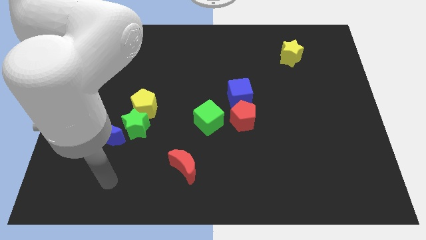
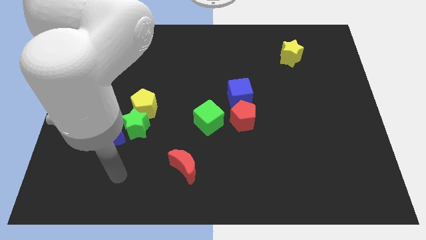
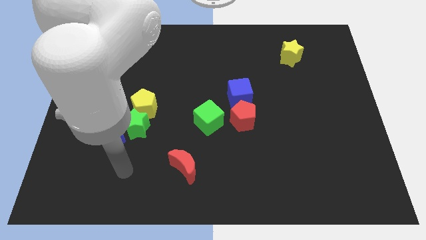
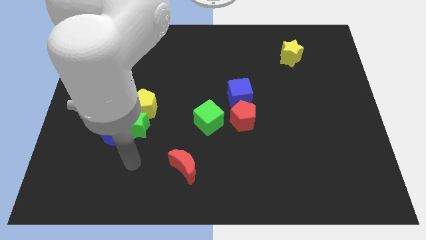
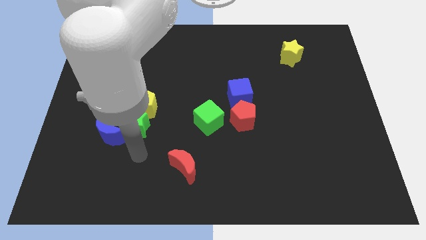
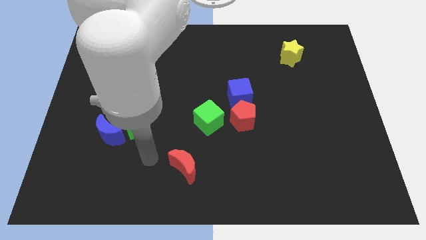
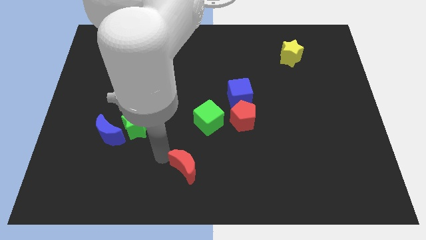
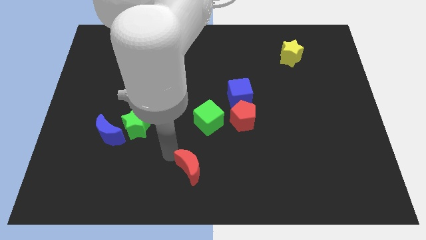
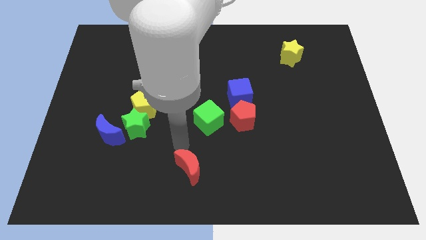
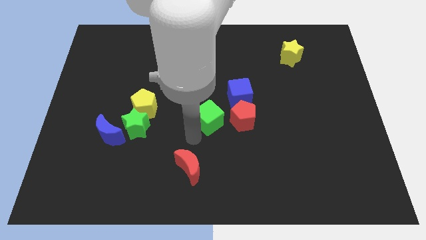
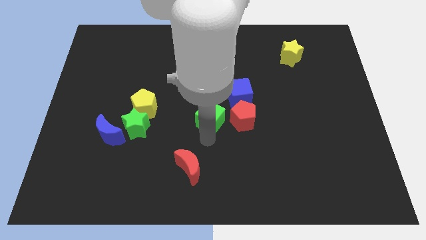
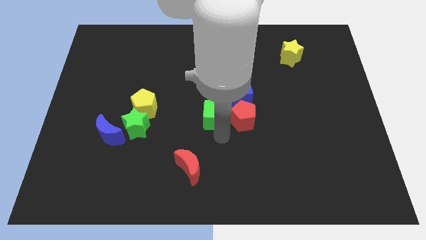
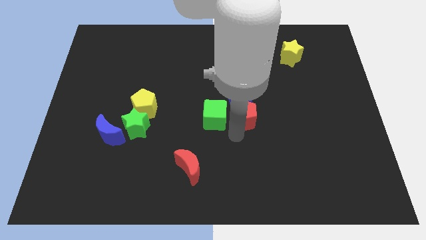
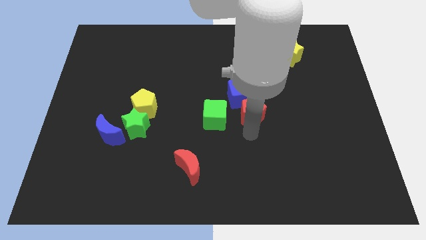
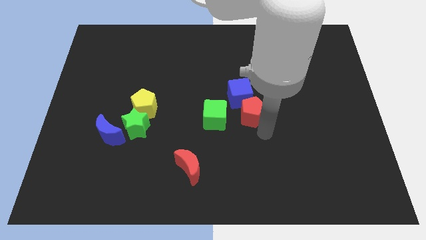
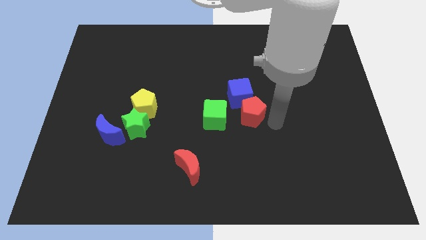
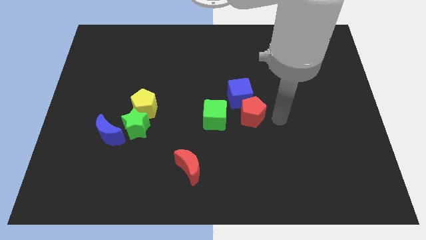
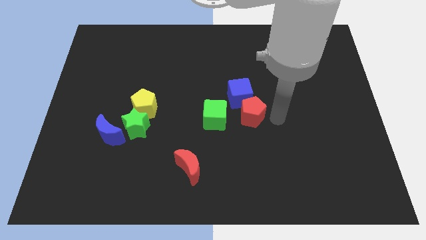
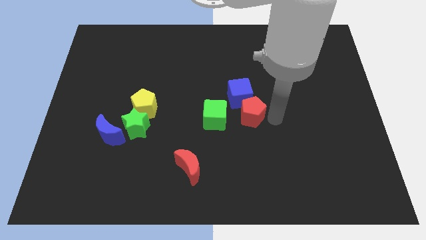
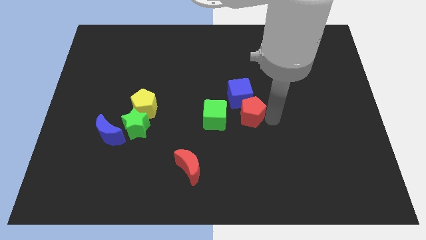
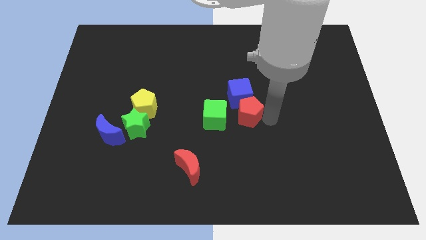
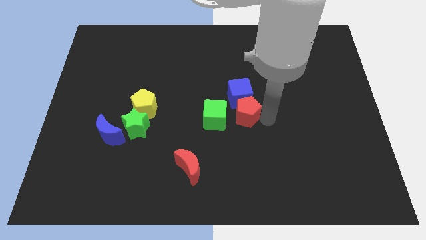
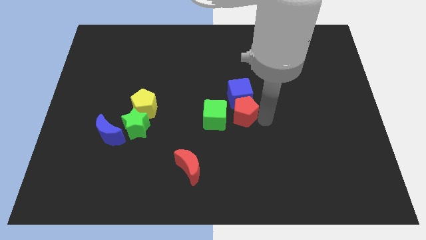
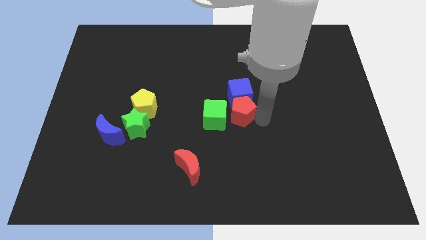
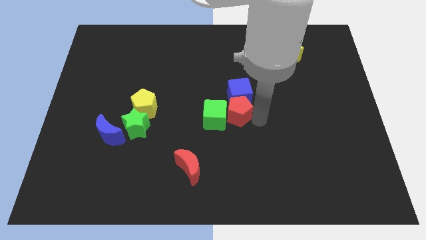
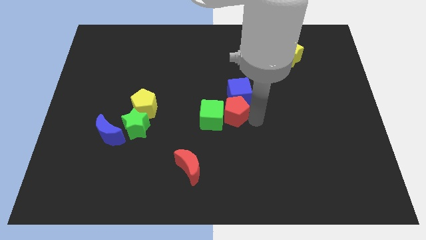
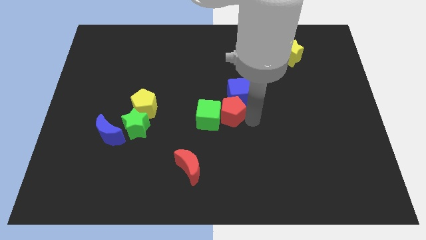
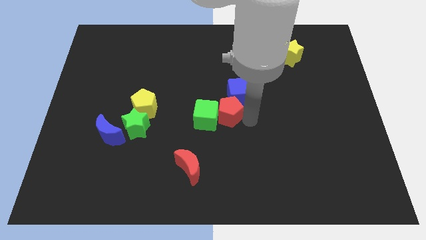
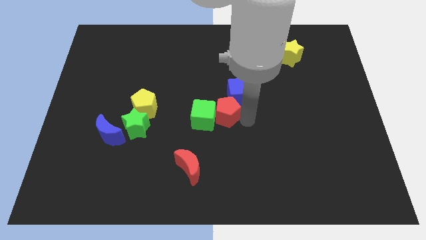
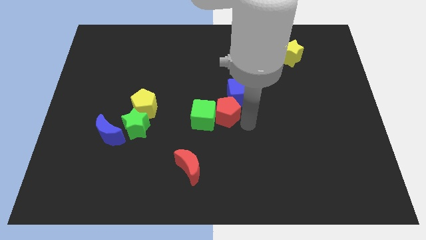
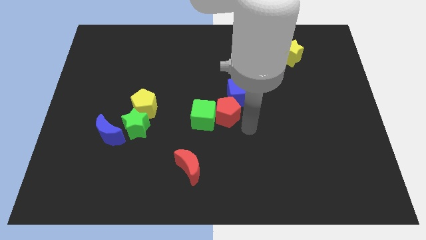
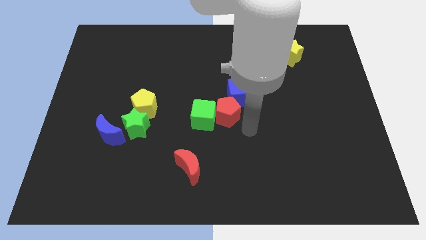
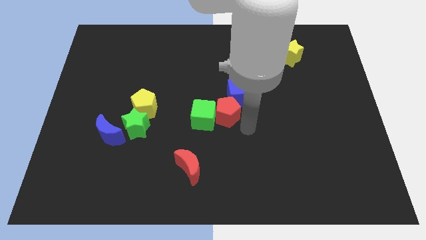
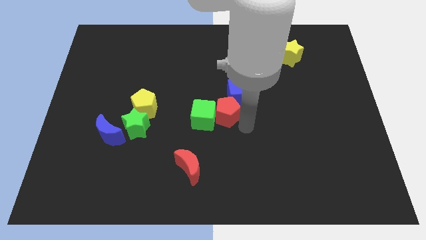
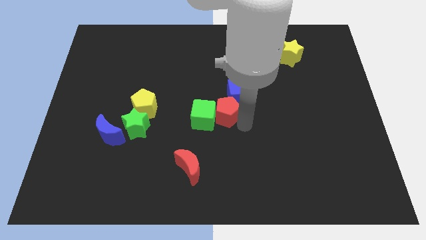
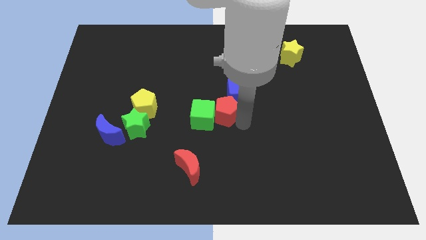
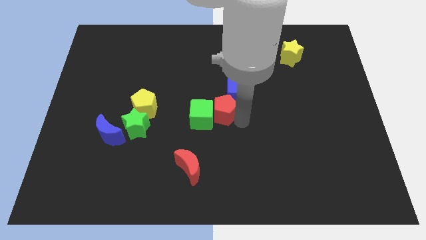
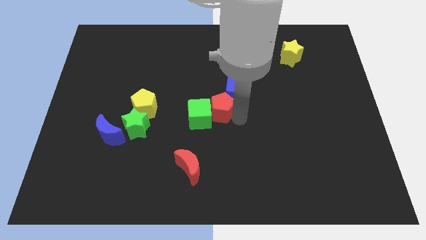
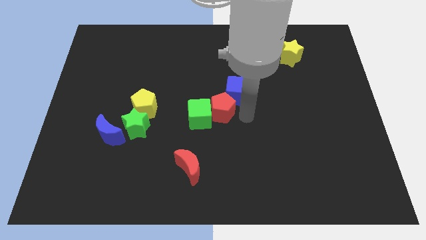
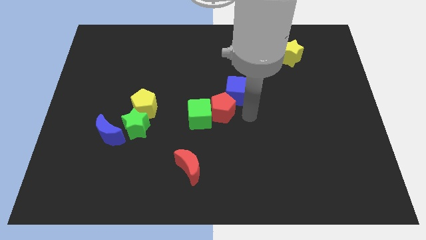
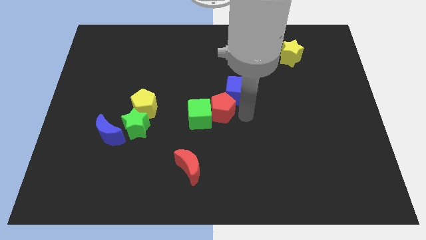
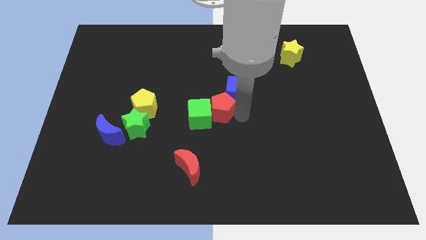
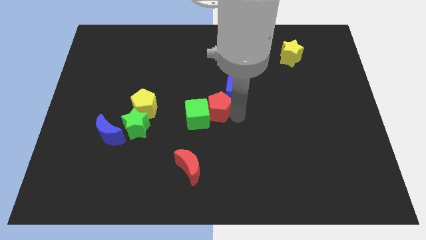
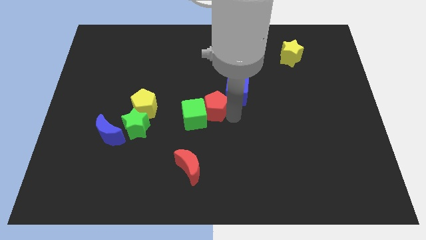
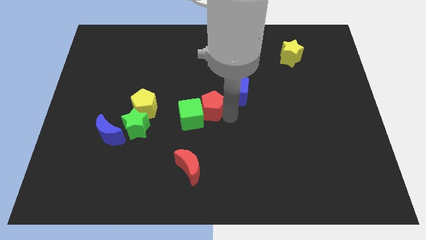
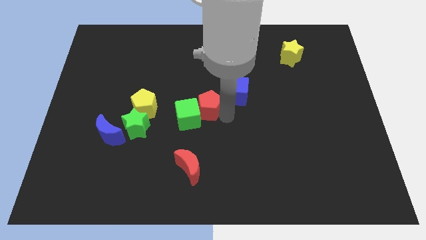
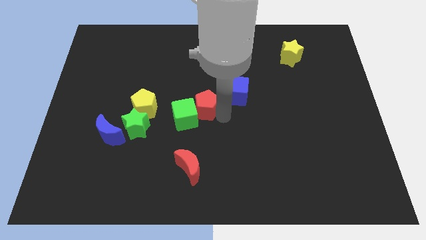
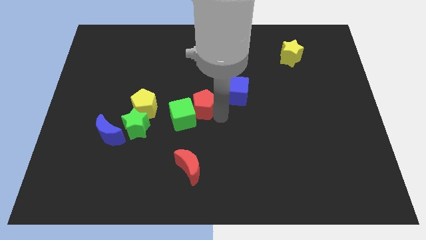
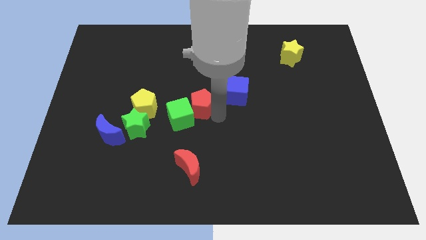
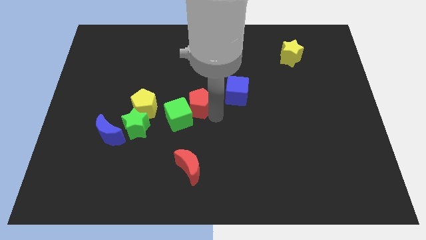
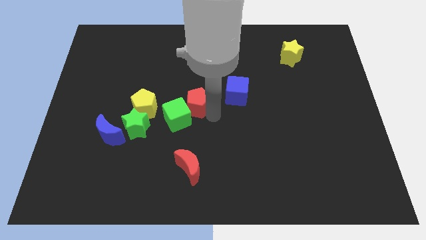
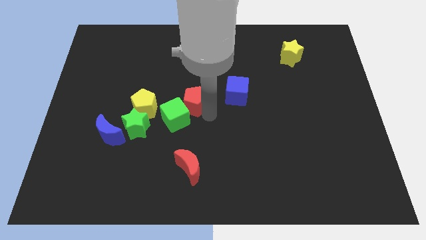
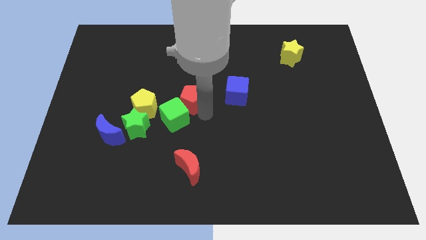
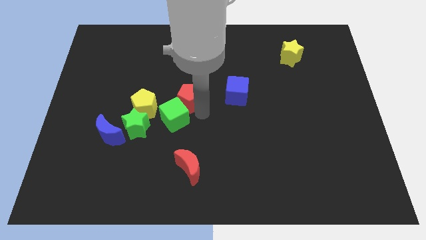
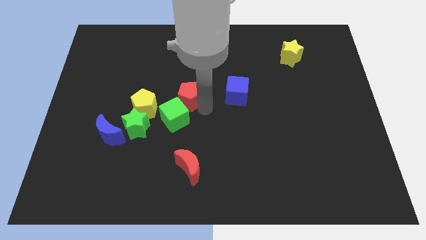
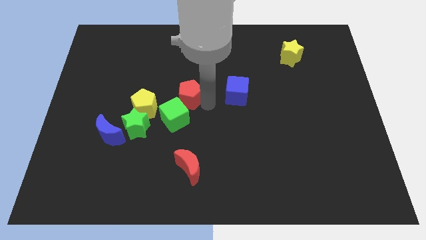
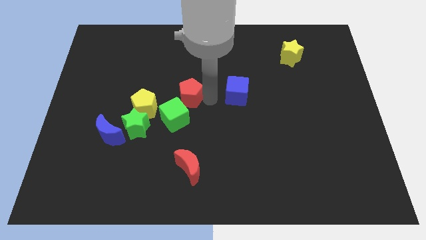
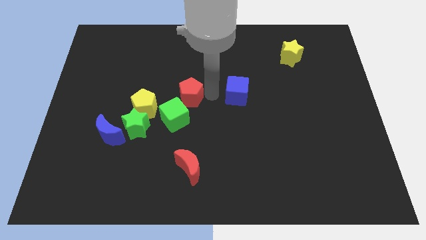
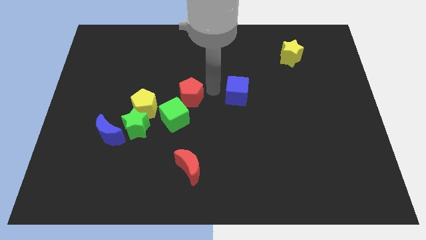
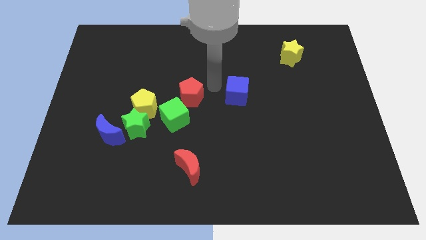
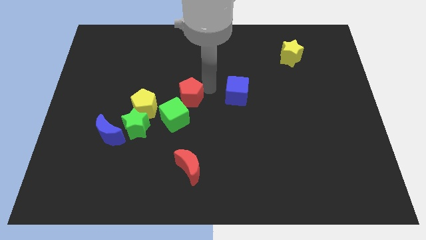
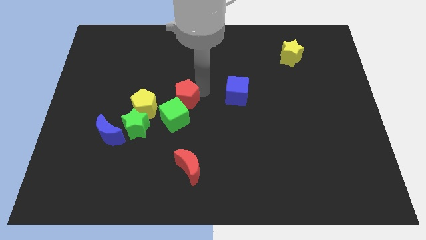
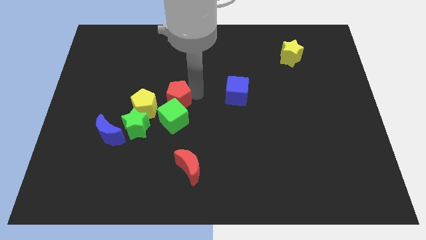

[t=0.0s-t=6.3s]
push the red pentagon to the top right side of the green star

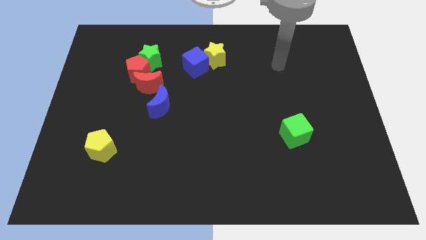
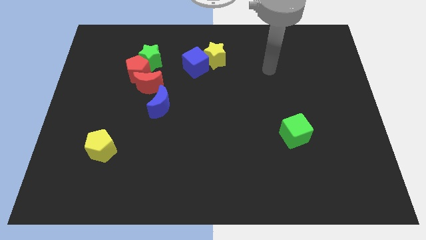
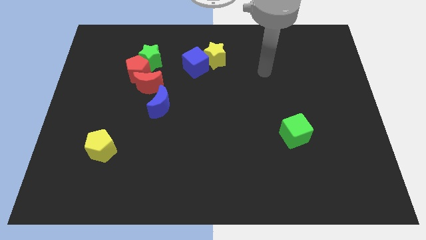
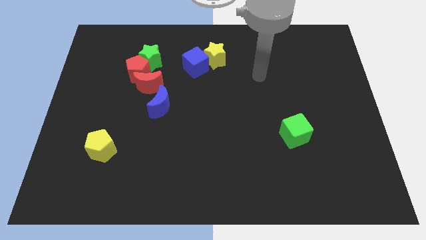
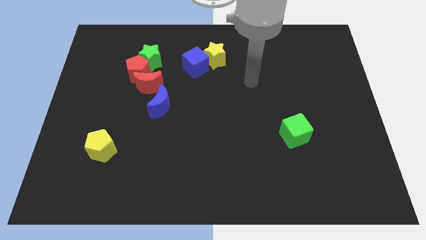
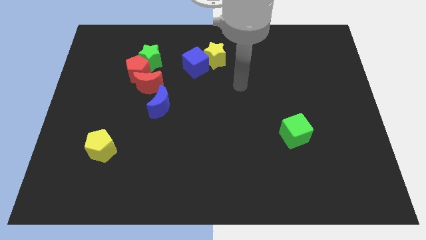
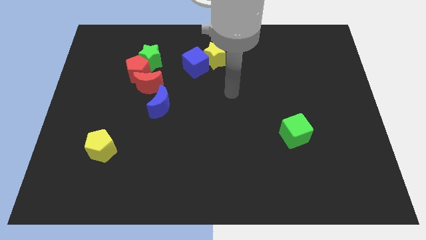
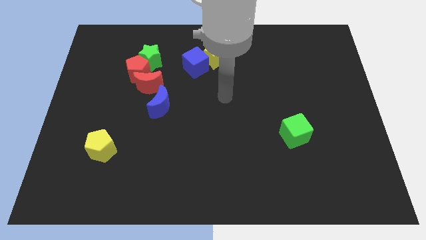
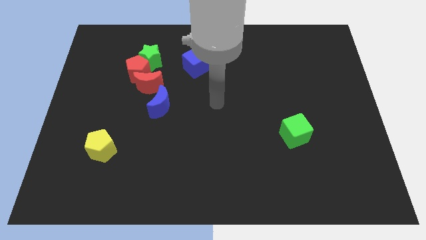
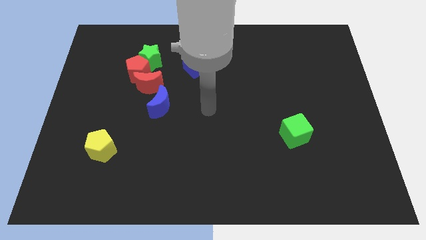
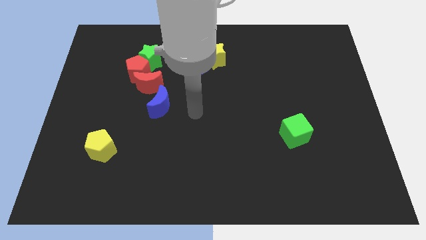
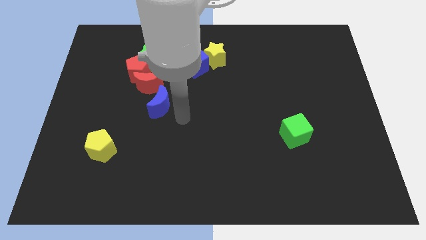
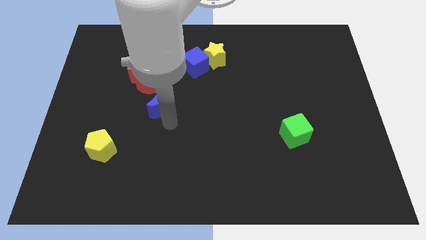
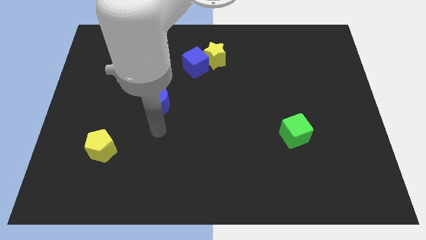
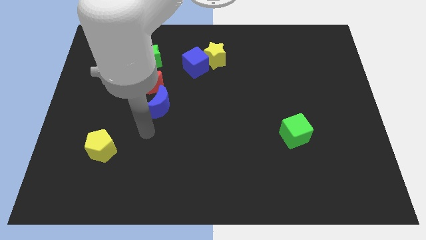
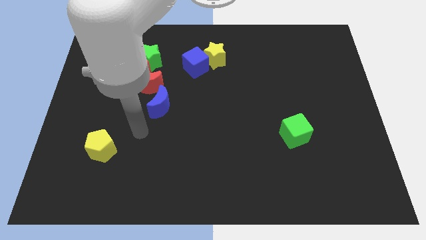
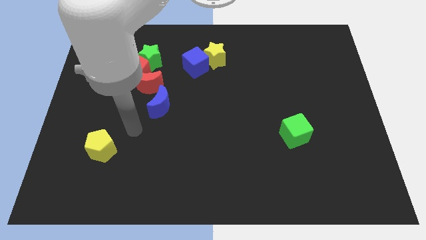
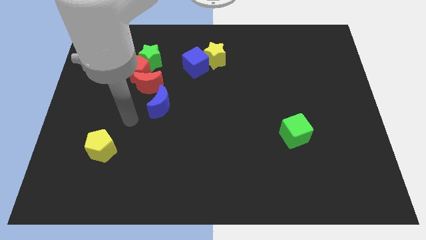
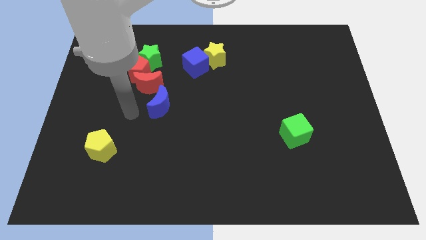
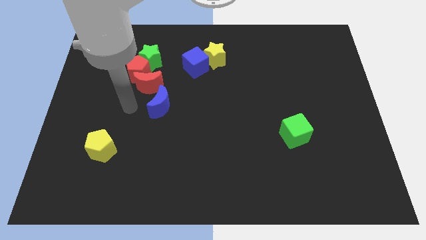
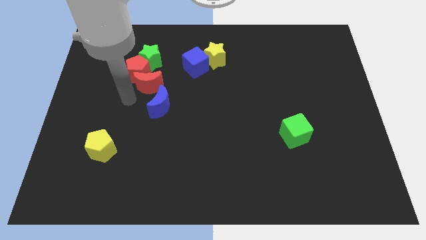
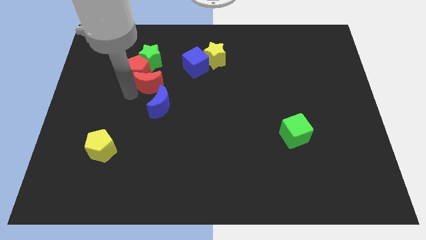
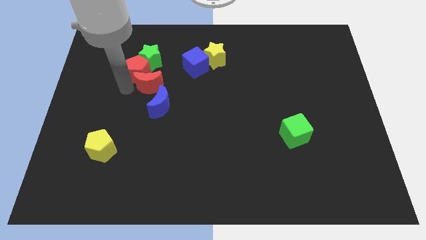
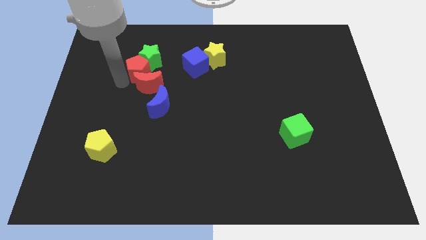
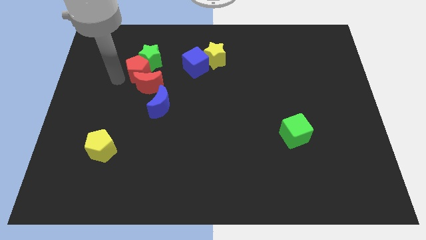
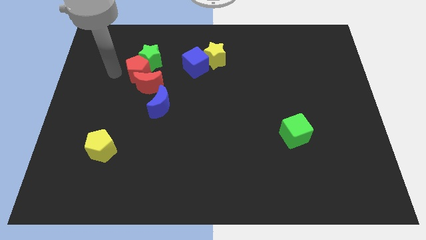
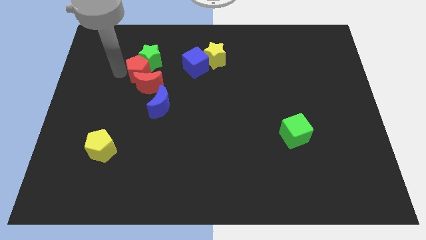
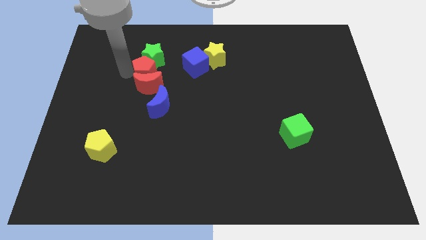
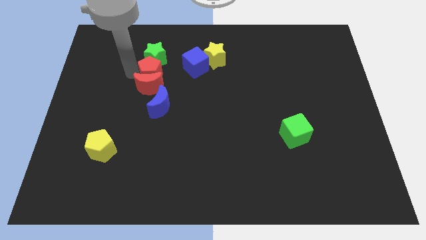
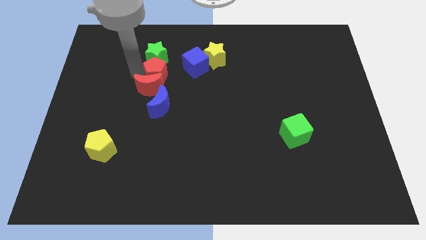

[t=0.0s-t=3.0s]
put the red pentagon diagonally down and to the left of the blue cube
